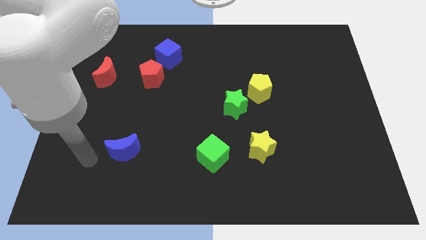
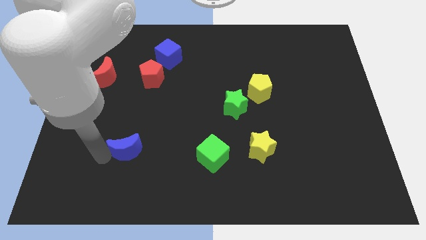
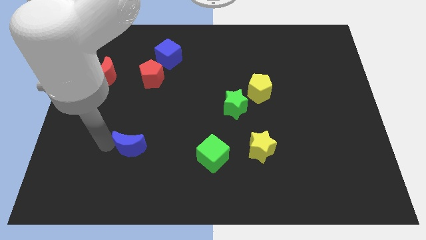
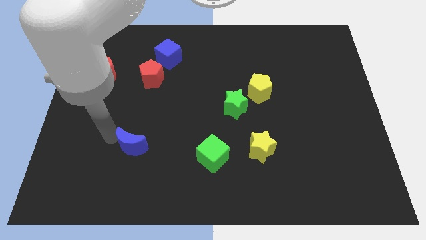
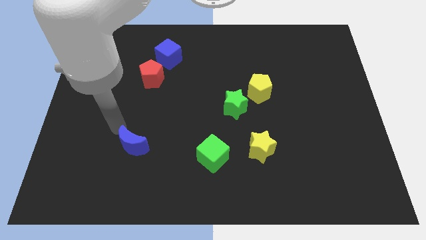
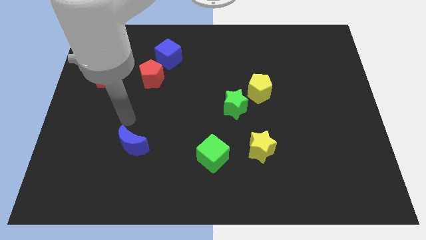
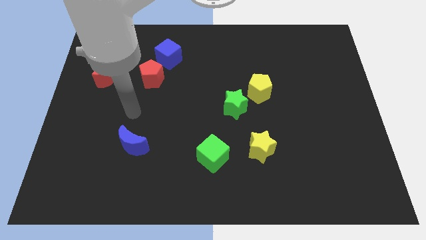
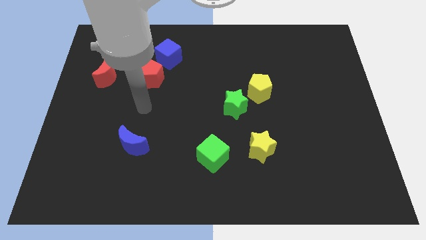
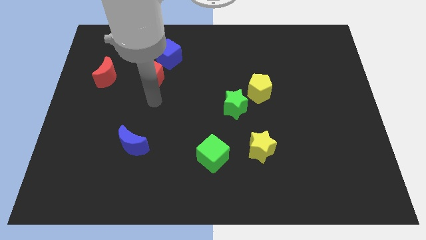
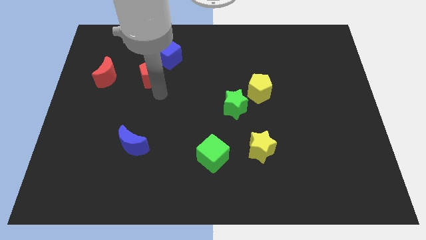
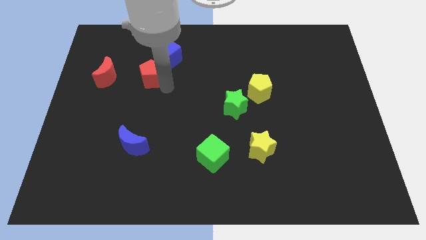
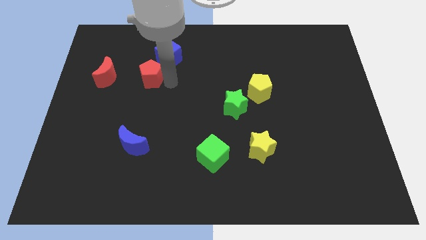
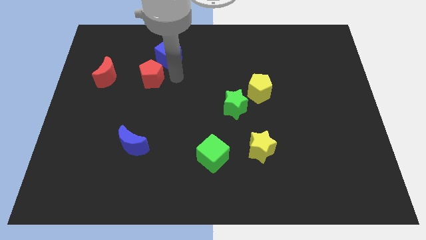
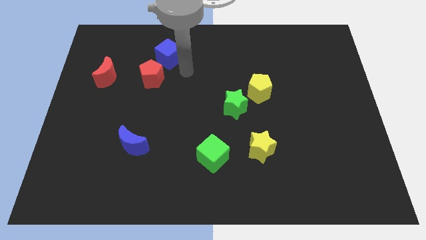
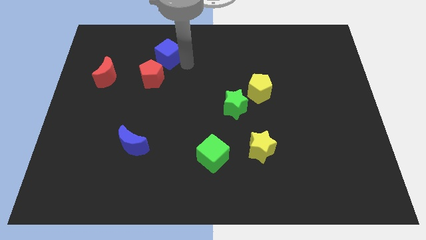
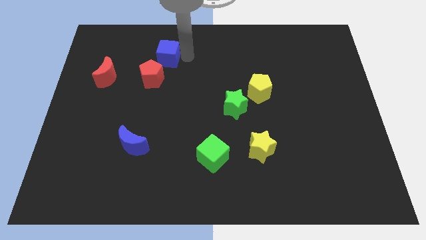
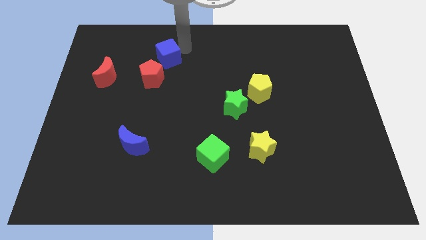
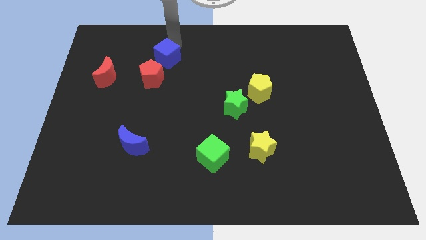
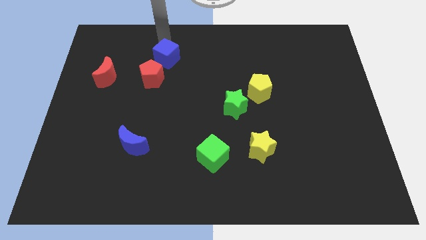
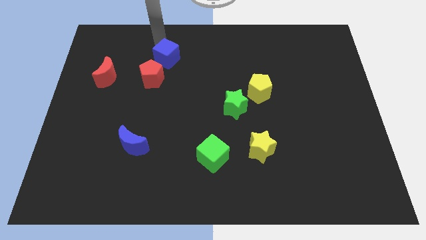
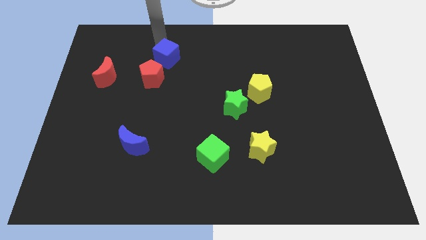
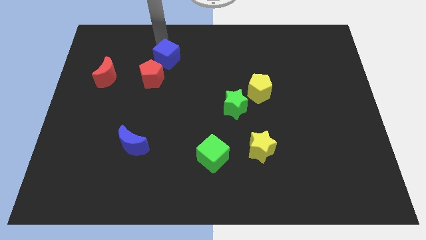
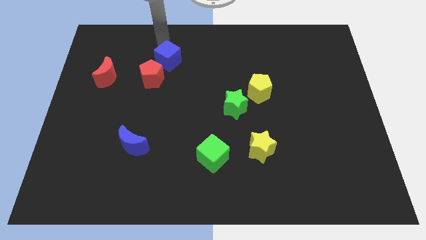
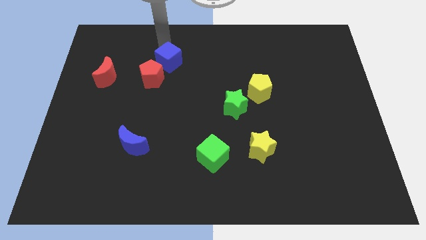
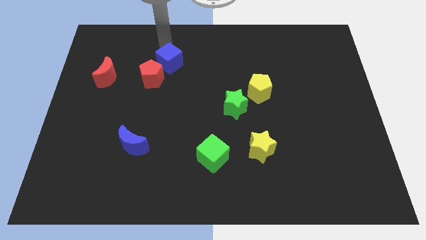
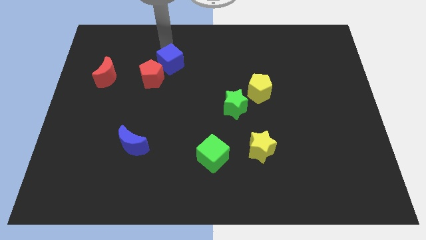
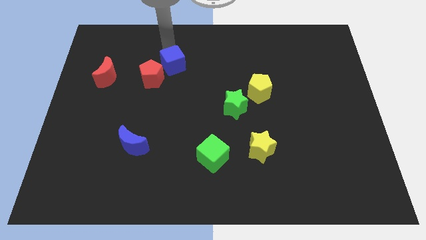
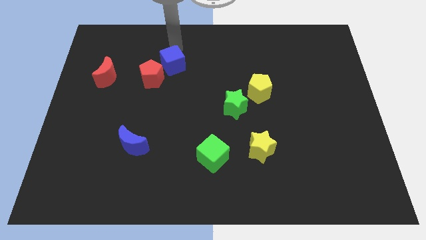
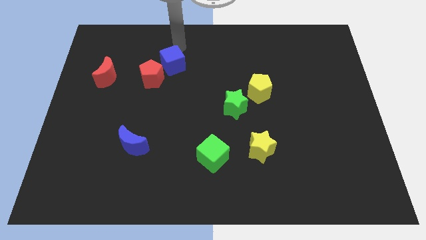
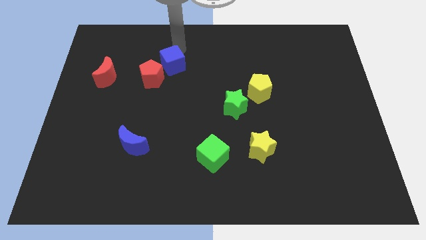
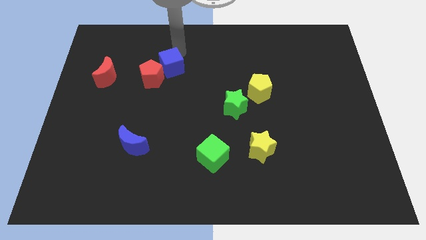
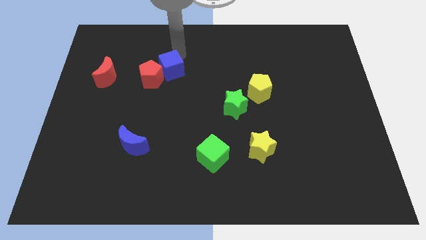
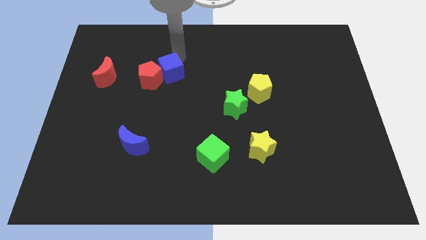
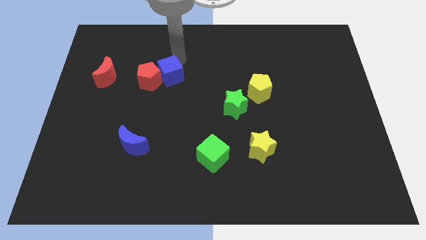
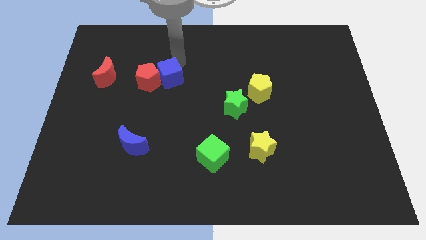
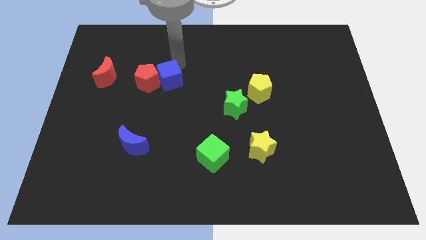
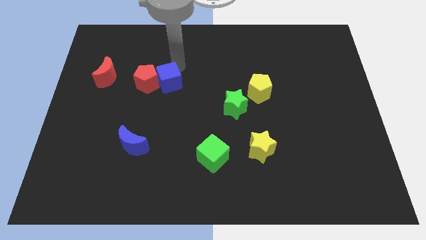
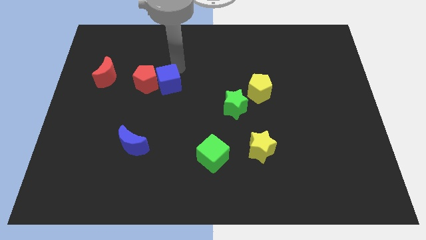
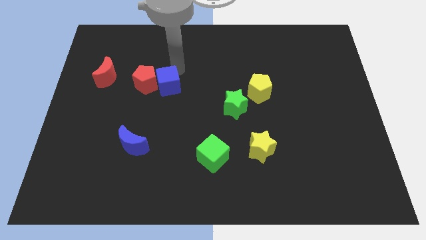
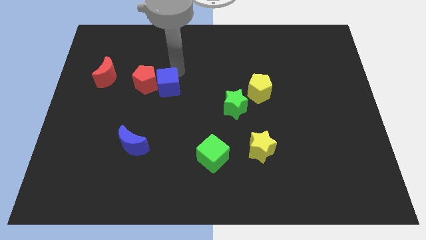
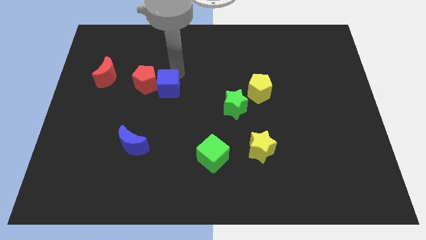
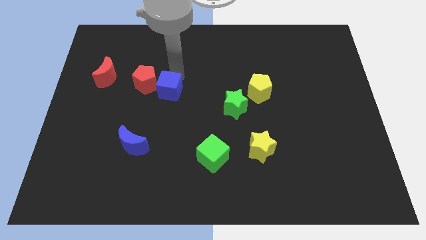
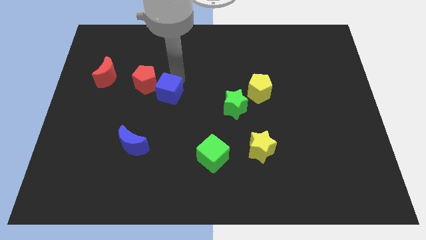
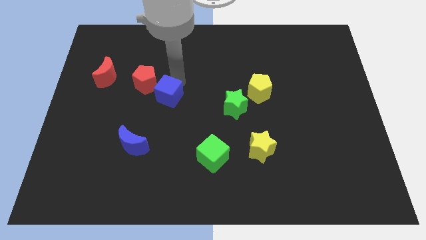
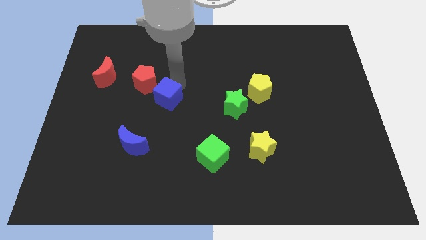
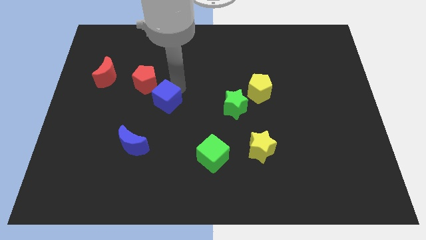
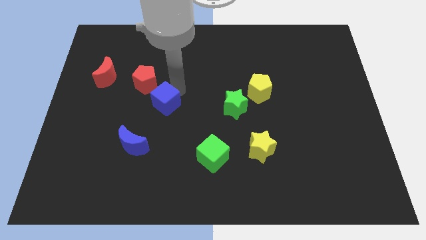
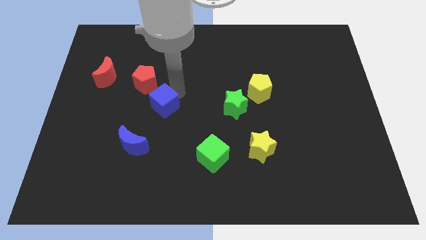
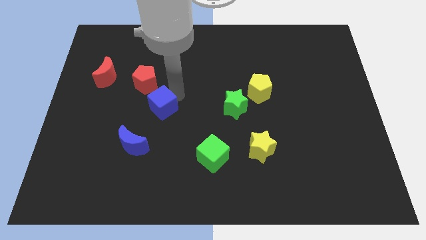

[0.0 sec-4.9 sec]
slide the blue cube below the red pentagon

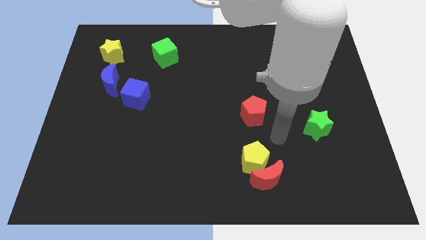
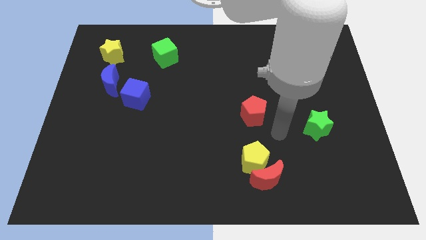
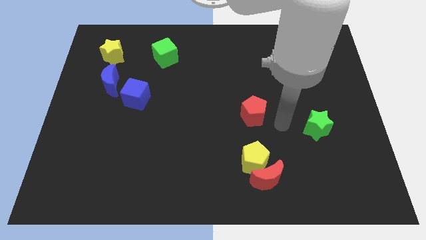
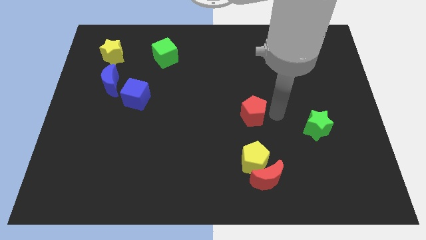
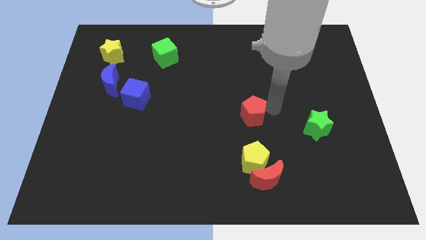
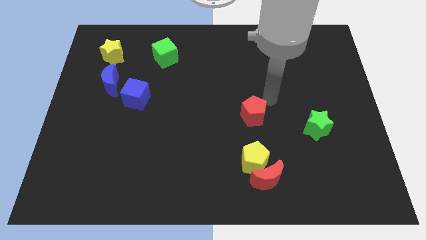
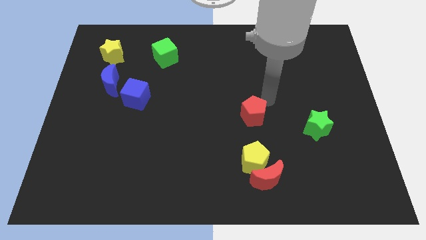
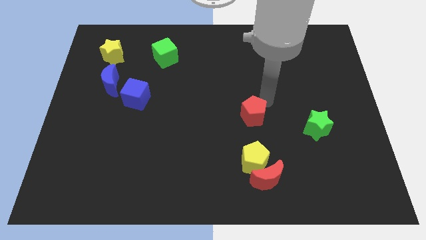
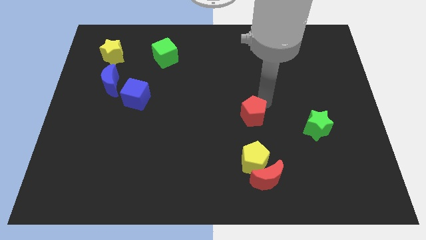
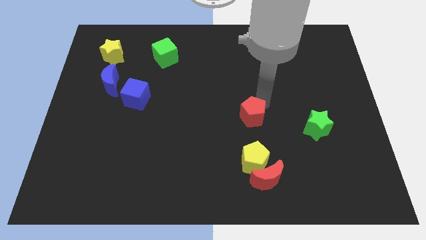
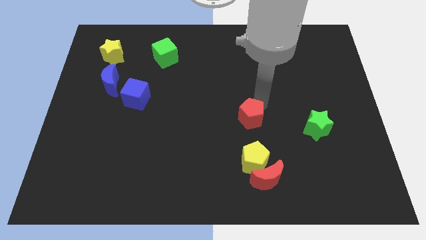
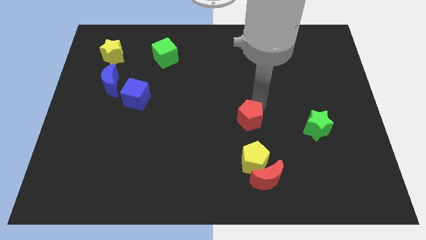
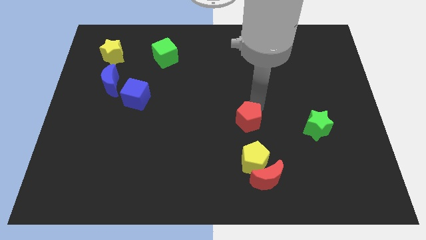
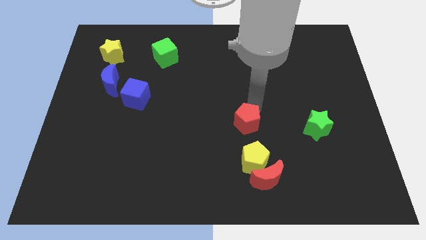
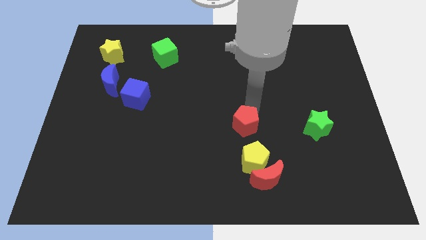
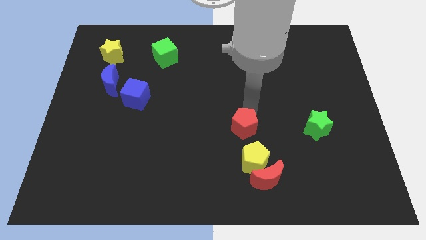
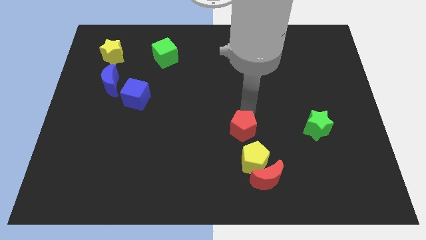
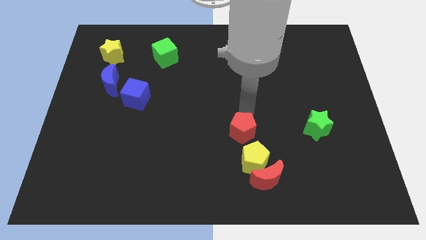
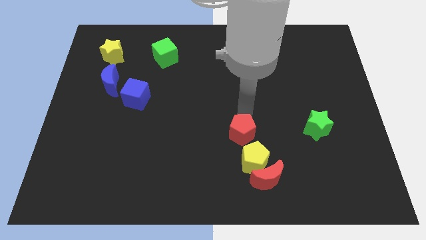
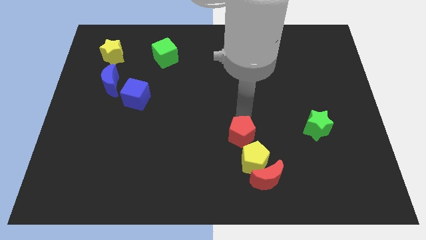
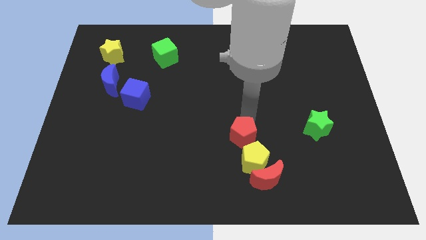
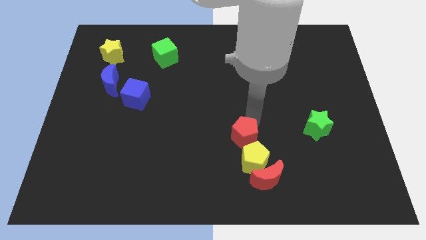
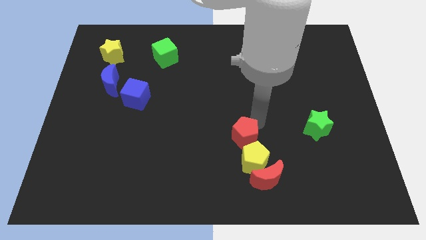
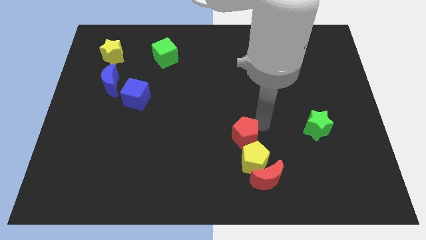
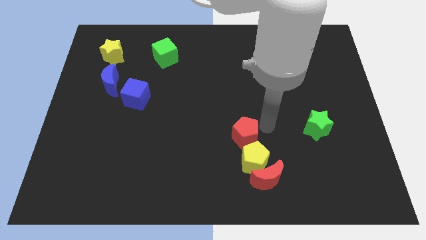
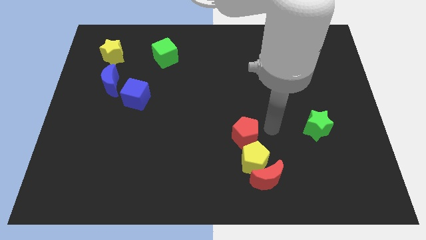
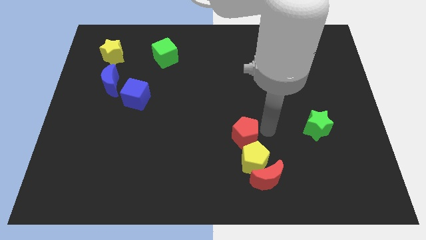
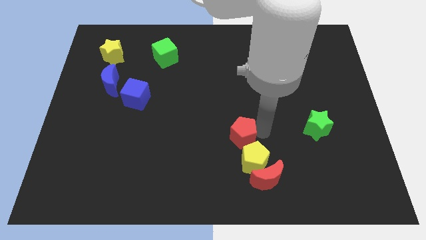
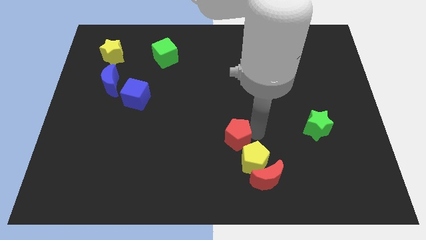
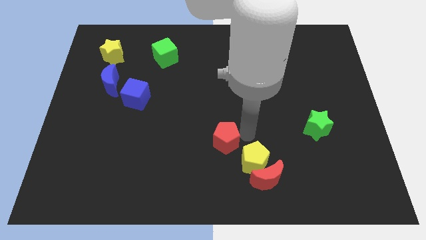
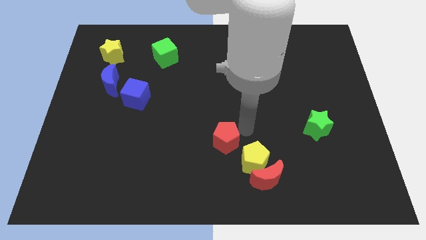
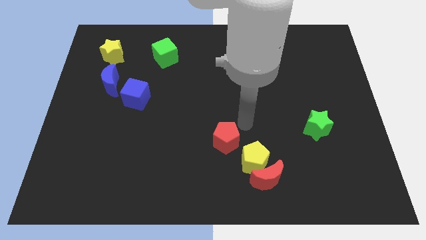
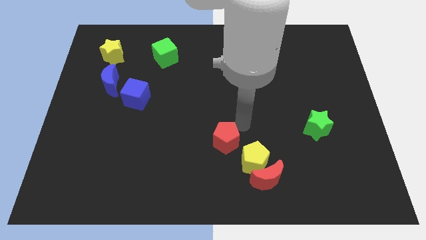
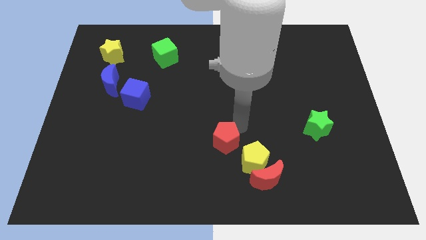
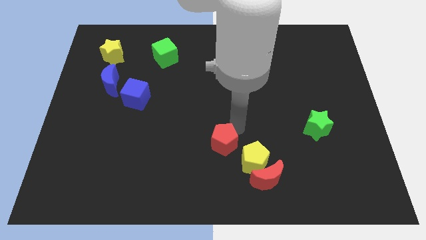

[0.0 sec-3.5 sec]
move the red pentagon just left of the yellow pentagon
